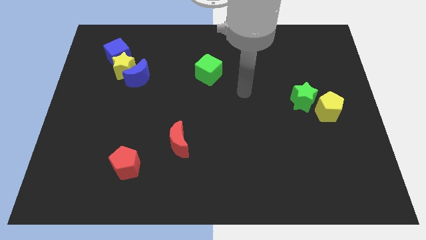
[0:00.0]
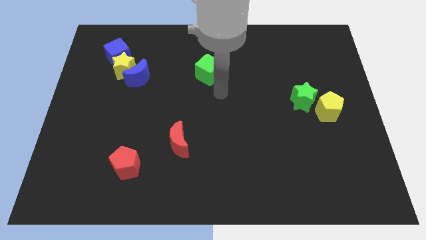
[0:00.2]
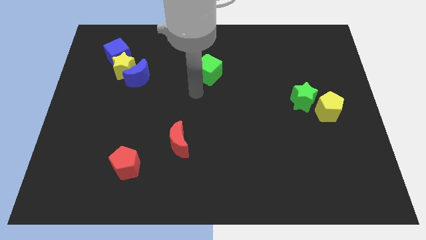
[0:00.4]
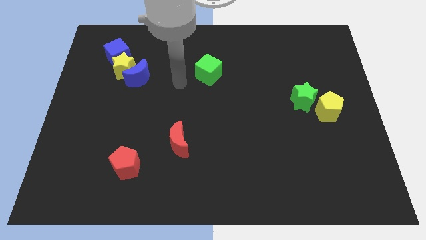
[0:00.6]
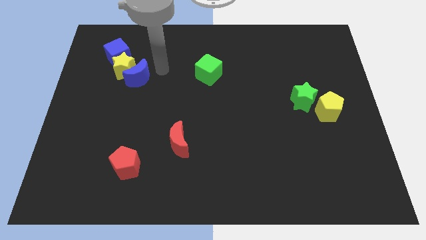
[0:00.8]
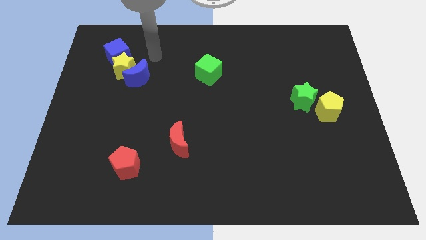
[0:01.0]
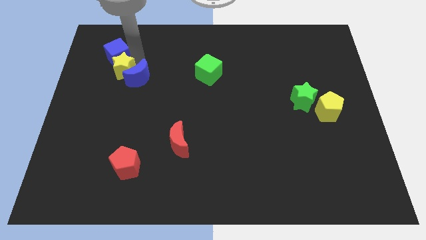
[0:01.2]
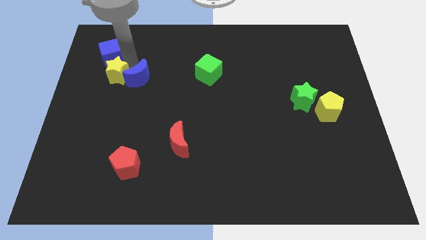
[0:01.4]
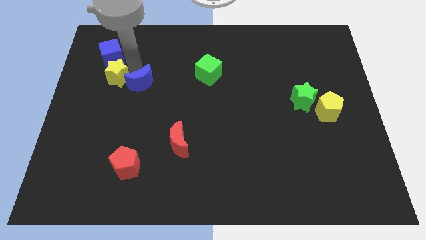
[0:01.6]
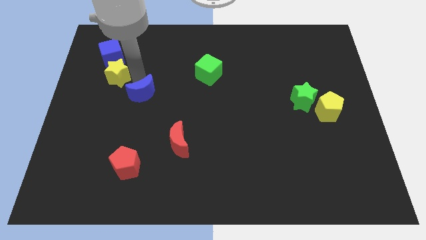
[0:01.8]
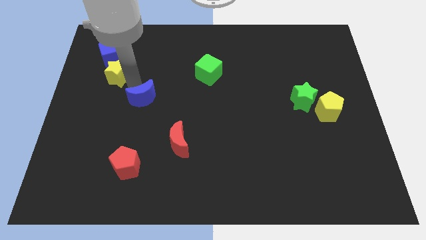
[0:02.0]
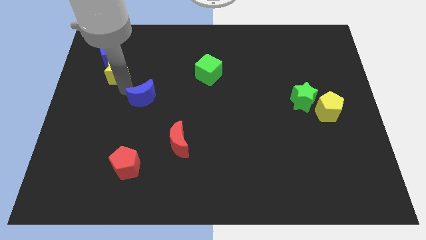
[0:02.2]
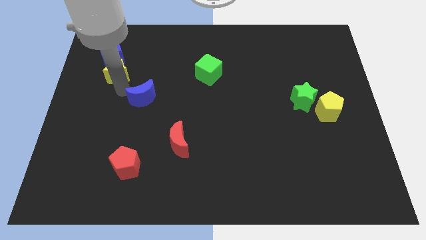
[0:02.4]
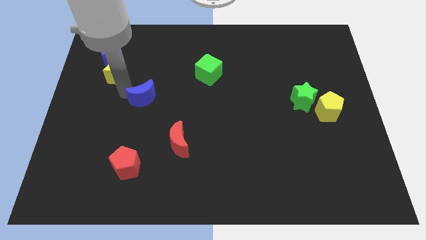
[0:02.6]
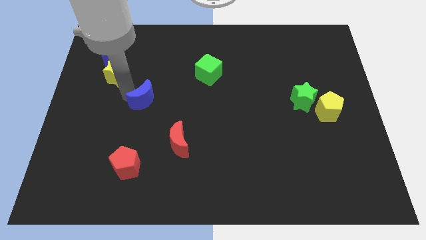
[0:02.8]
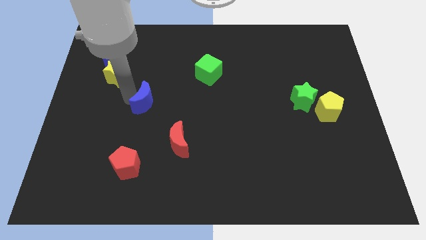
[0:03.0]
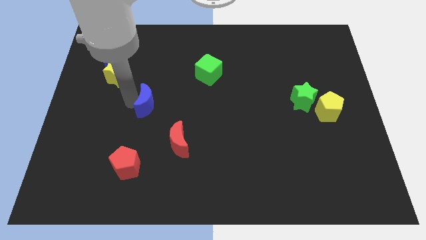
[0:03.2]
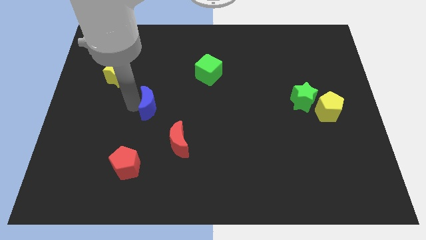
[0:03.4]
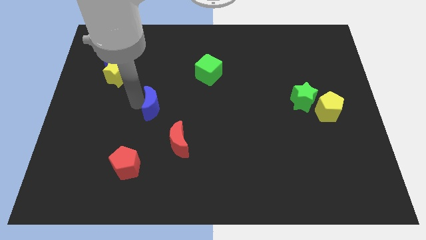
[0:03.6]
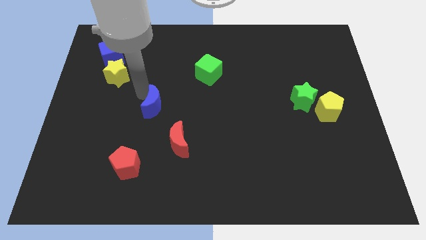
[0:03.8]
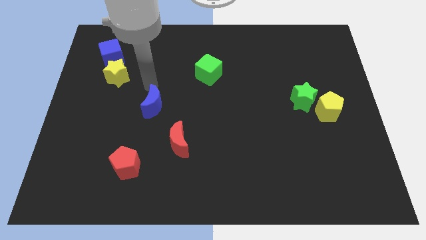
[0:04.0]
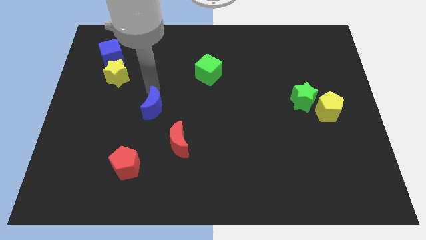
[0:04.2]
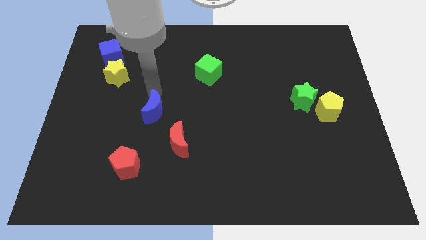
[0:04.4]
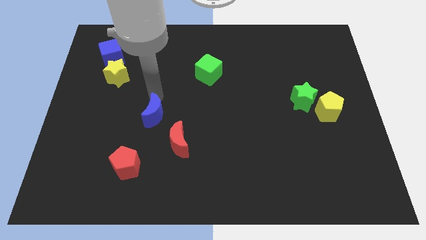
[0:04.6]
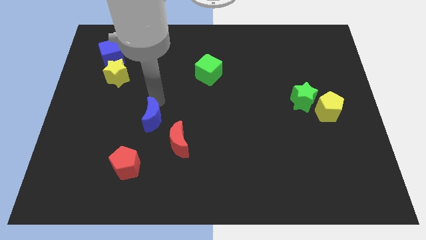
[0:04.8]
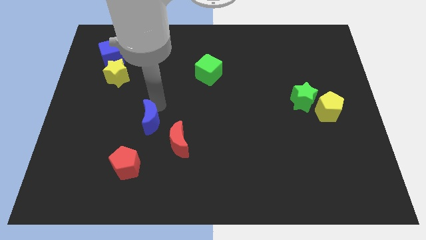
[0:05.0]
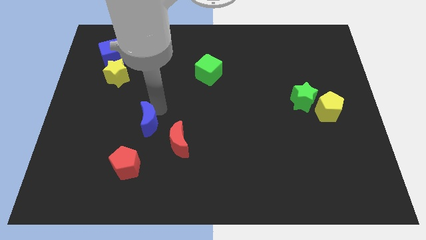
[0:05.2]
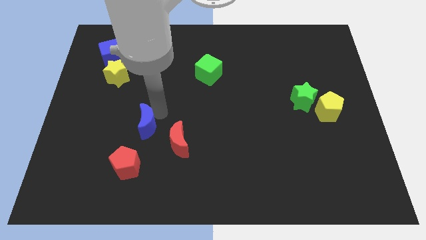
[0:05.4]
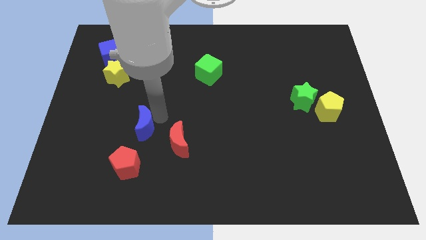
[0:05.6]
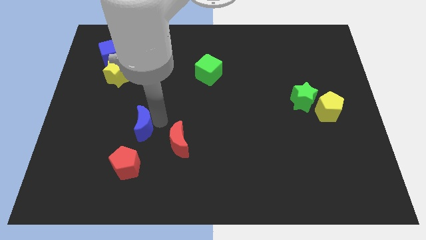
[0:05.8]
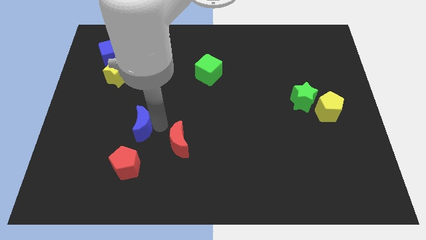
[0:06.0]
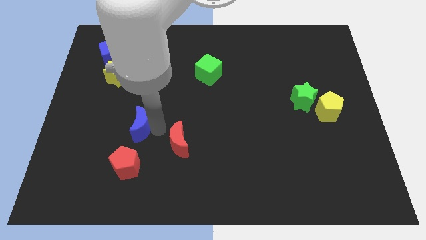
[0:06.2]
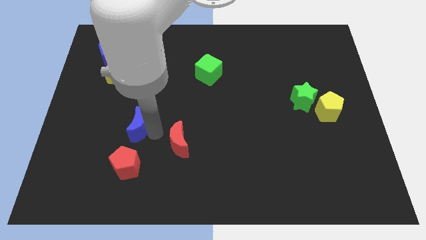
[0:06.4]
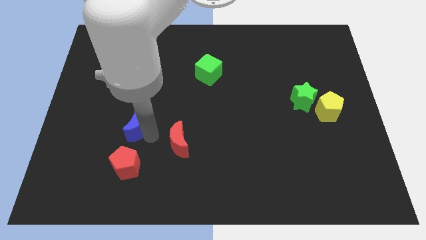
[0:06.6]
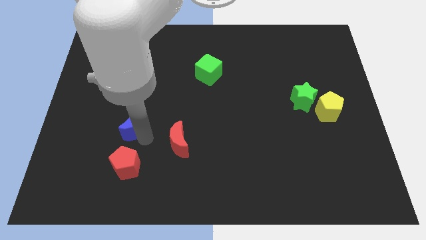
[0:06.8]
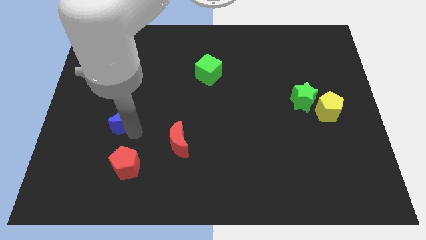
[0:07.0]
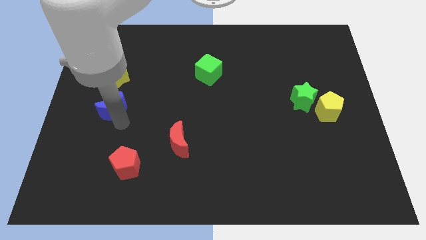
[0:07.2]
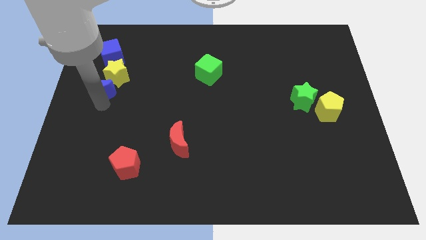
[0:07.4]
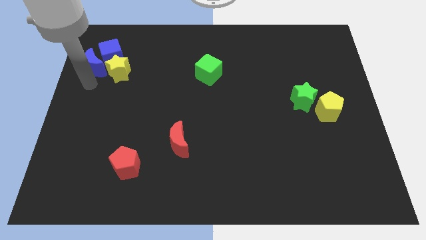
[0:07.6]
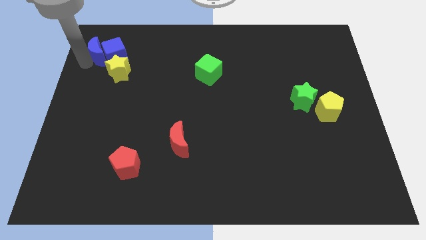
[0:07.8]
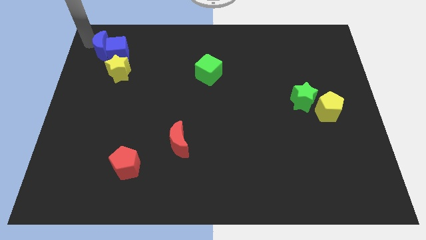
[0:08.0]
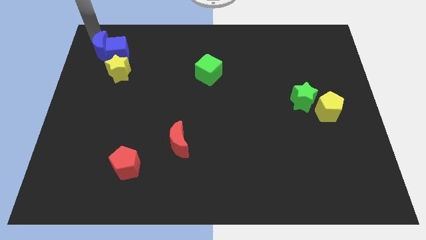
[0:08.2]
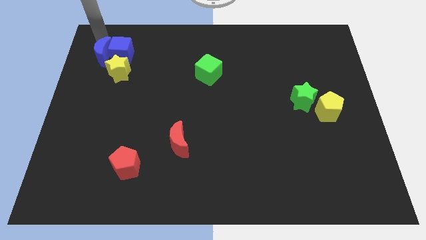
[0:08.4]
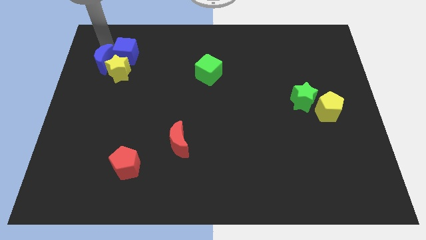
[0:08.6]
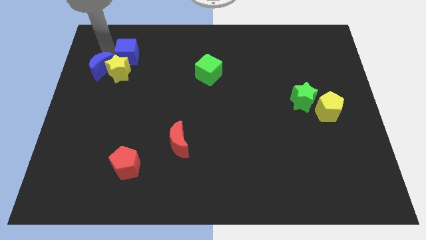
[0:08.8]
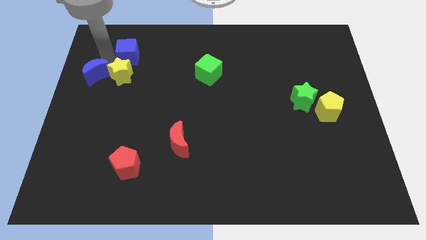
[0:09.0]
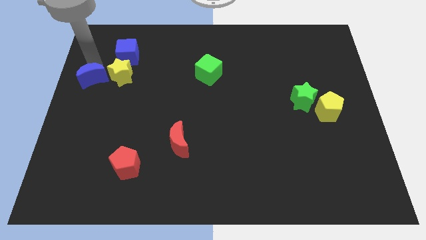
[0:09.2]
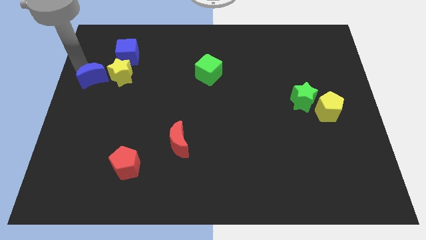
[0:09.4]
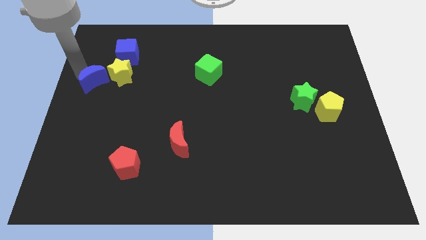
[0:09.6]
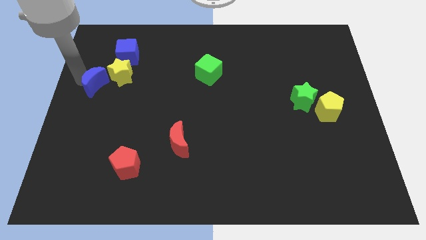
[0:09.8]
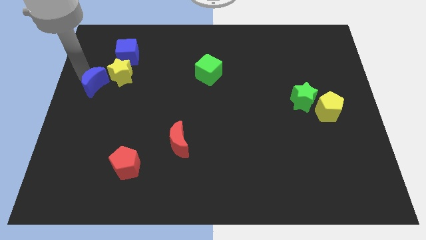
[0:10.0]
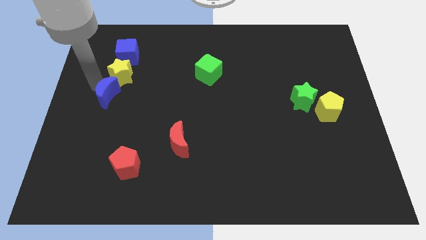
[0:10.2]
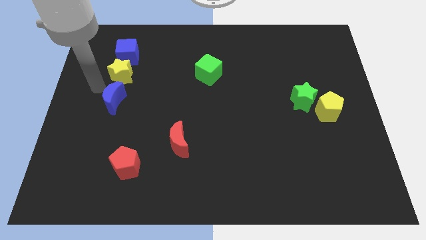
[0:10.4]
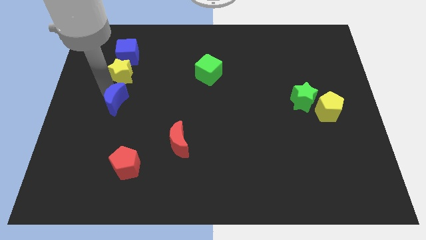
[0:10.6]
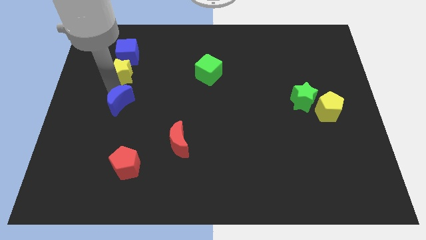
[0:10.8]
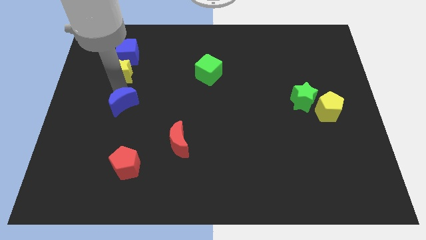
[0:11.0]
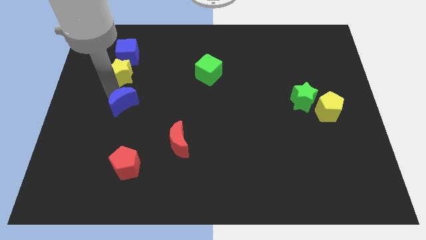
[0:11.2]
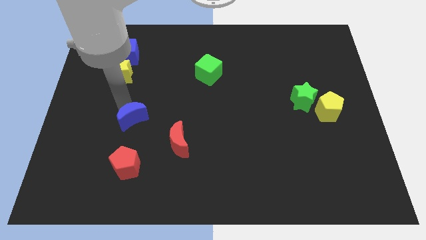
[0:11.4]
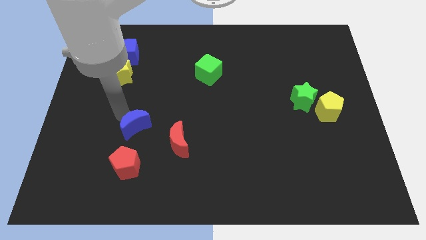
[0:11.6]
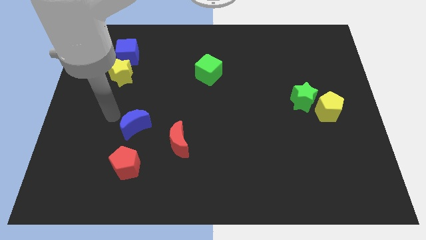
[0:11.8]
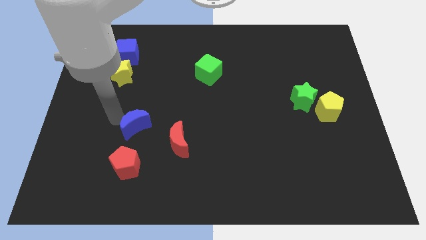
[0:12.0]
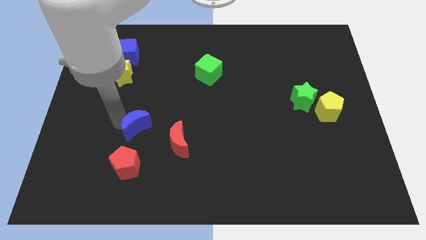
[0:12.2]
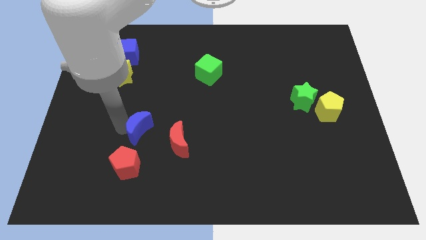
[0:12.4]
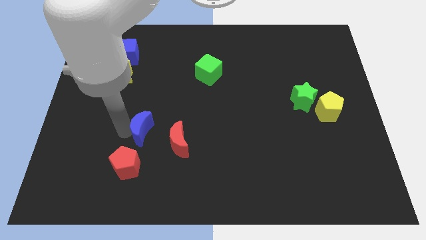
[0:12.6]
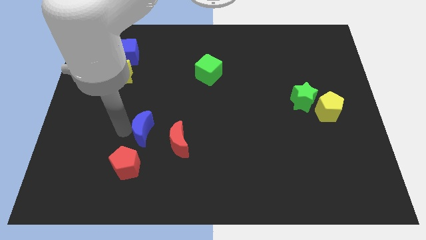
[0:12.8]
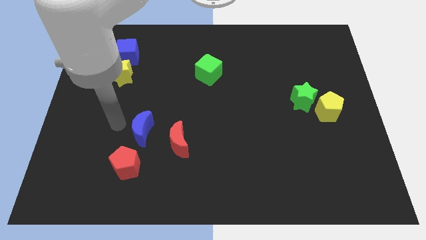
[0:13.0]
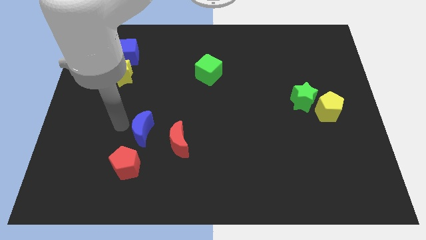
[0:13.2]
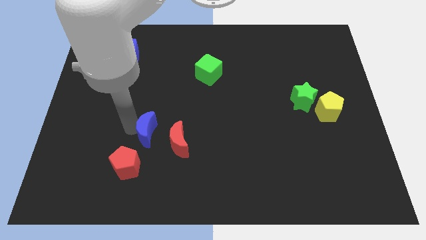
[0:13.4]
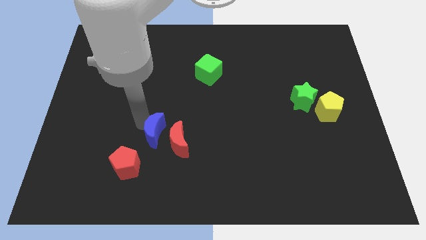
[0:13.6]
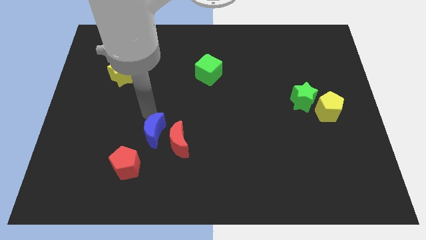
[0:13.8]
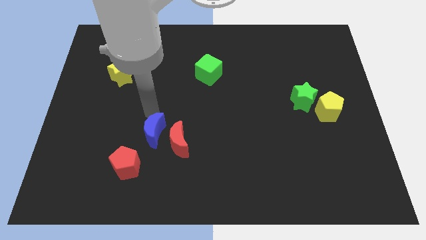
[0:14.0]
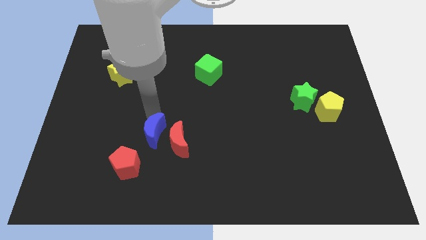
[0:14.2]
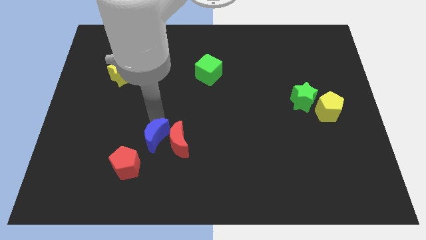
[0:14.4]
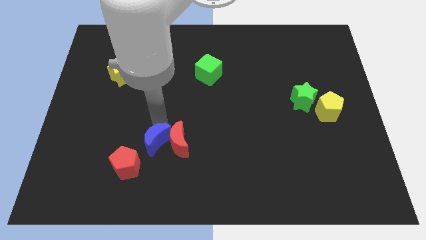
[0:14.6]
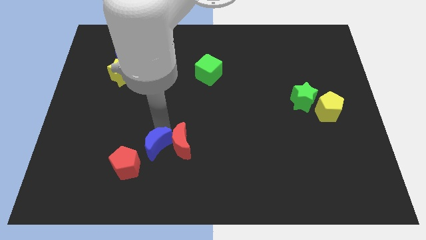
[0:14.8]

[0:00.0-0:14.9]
move the blue moon to the right of the red pentagon
